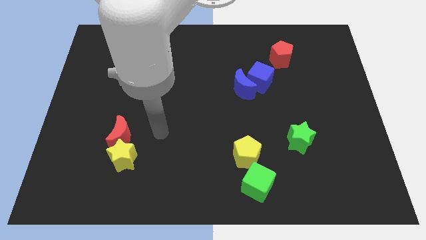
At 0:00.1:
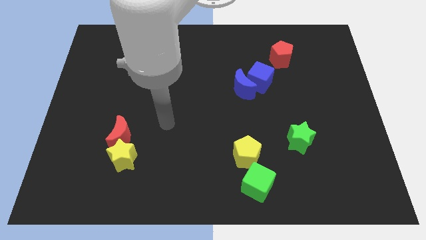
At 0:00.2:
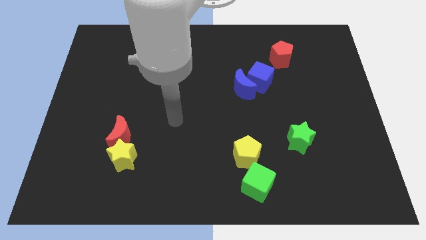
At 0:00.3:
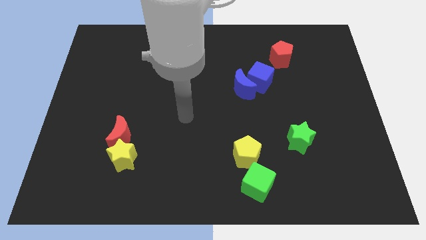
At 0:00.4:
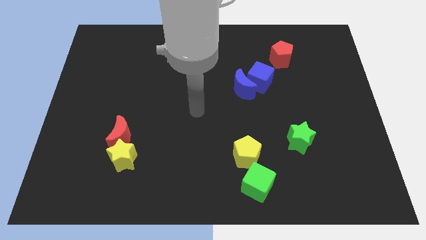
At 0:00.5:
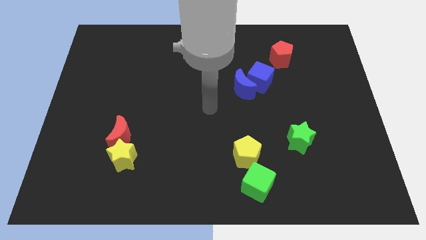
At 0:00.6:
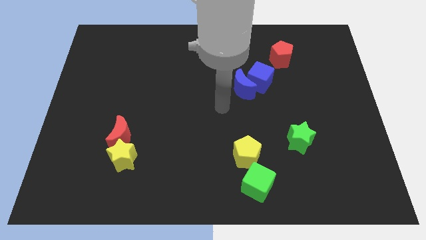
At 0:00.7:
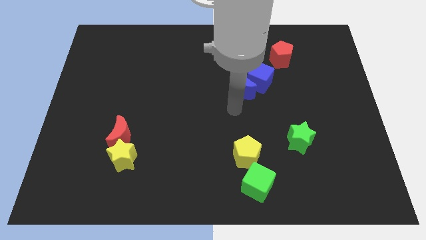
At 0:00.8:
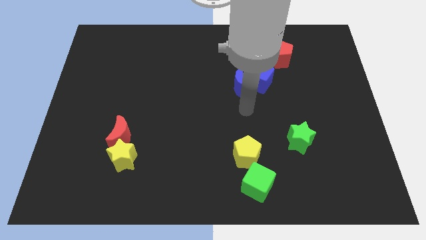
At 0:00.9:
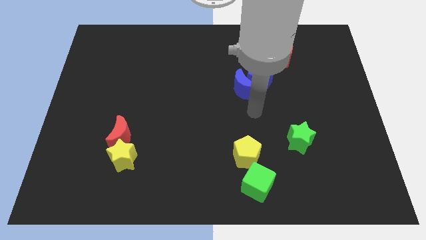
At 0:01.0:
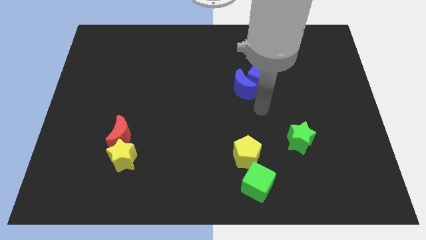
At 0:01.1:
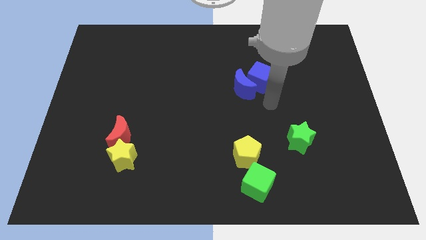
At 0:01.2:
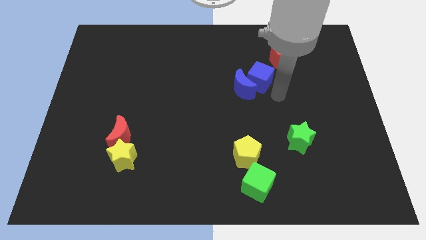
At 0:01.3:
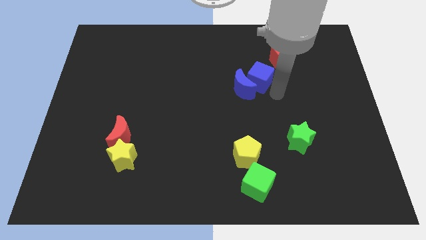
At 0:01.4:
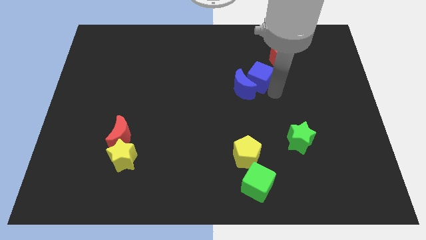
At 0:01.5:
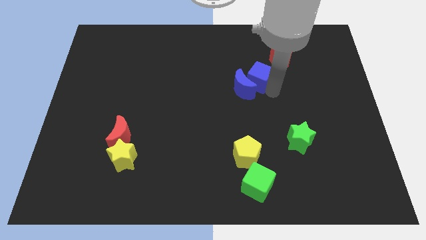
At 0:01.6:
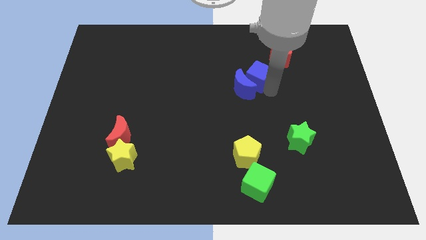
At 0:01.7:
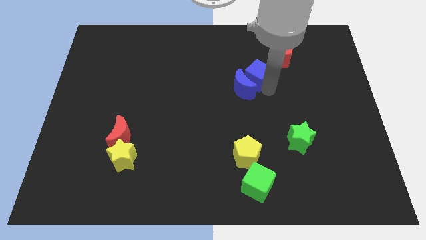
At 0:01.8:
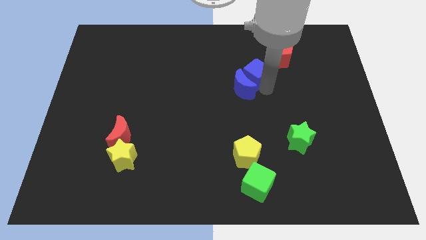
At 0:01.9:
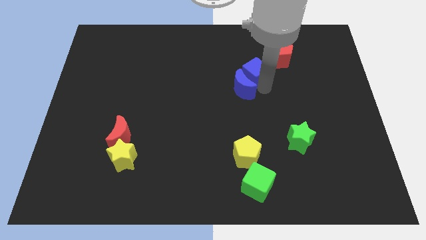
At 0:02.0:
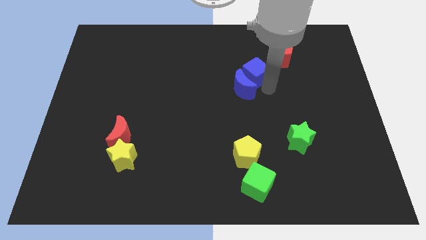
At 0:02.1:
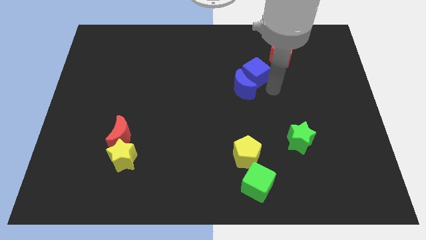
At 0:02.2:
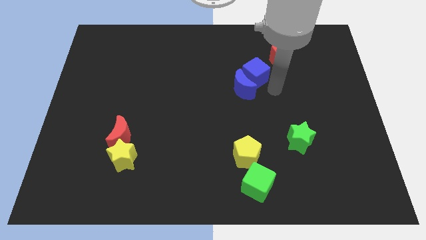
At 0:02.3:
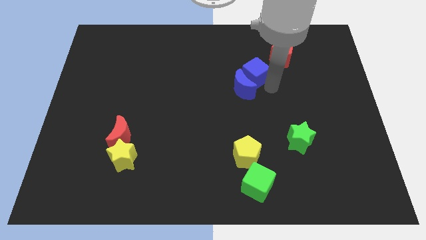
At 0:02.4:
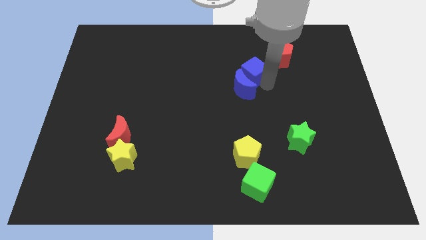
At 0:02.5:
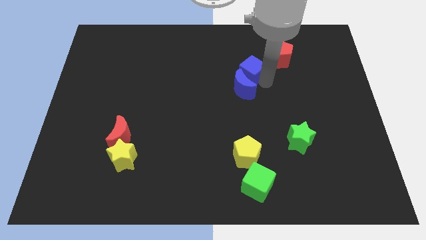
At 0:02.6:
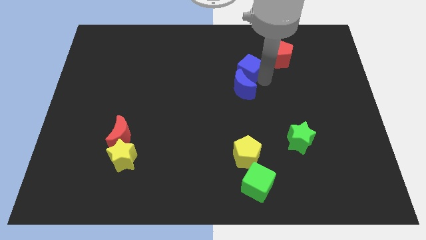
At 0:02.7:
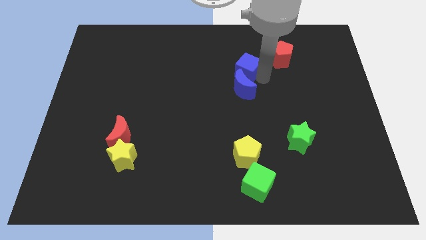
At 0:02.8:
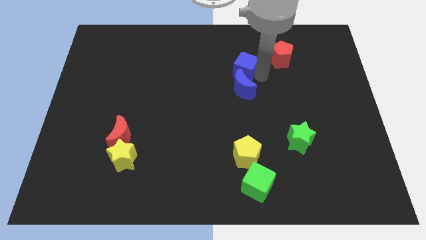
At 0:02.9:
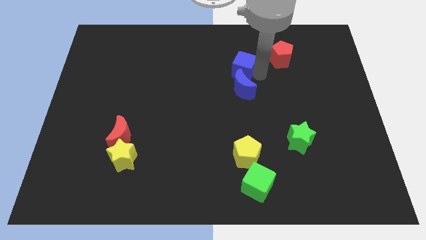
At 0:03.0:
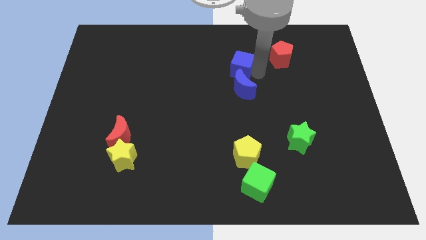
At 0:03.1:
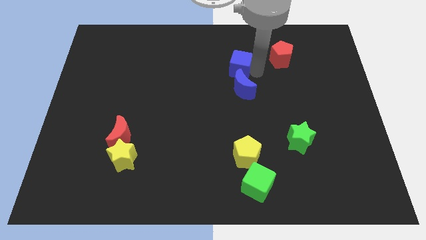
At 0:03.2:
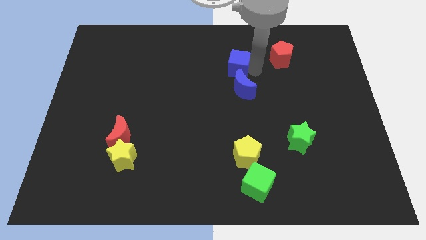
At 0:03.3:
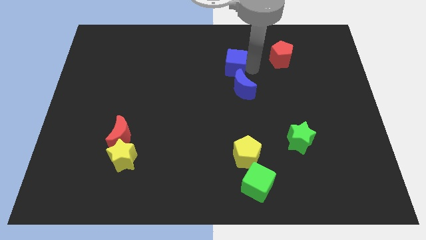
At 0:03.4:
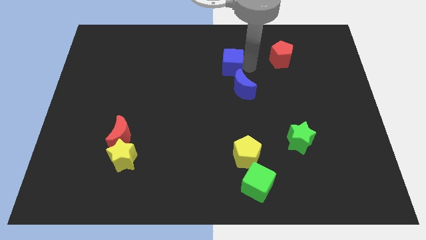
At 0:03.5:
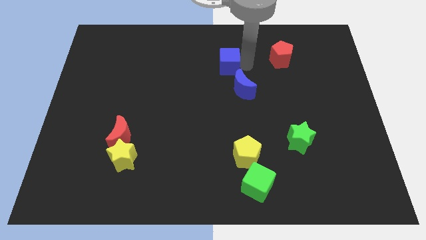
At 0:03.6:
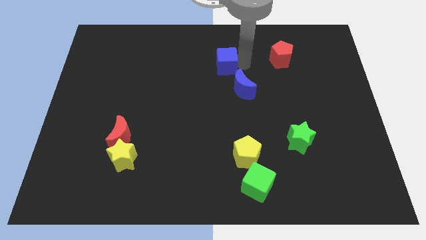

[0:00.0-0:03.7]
move the blue cube a little bit to the left

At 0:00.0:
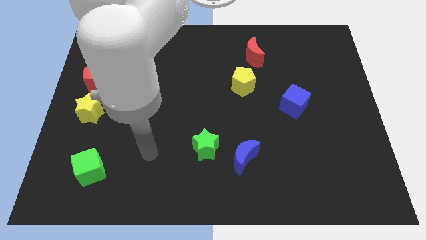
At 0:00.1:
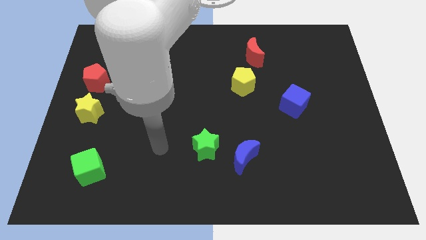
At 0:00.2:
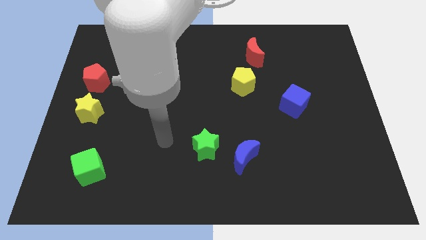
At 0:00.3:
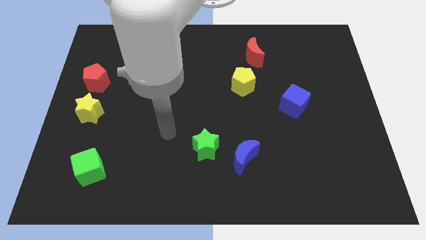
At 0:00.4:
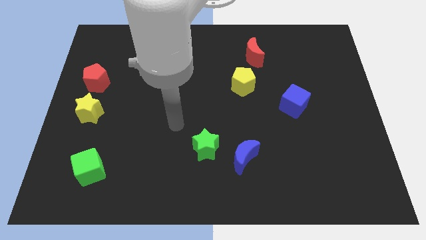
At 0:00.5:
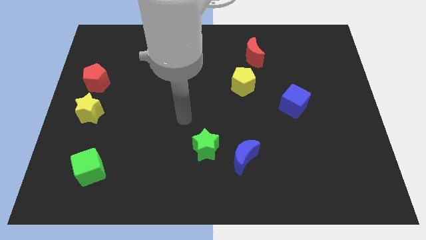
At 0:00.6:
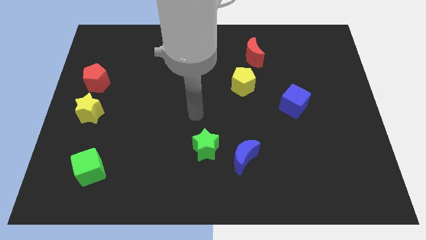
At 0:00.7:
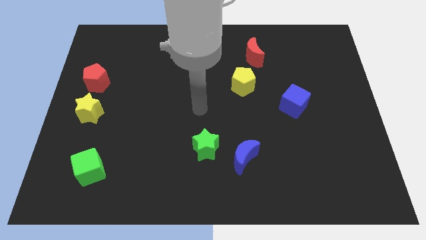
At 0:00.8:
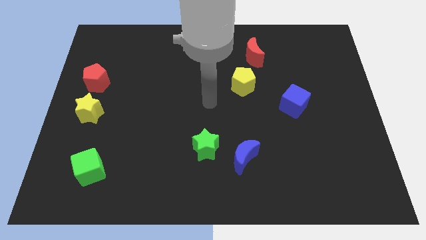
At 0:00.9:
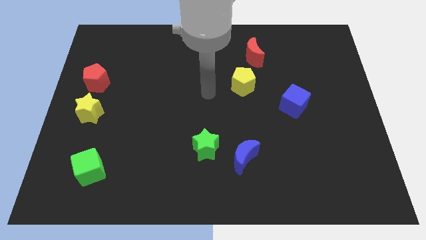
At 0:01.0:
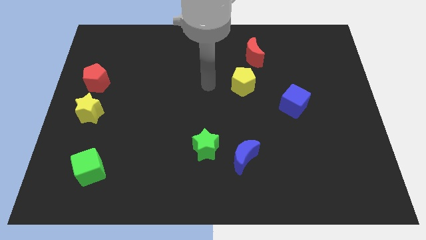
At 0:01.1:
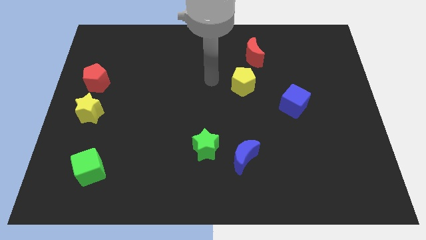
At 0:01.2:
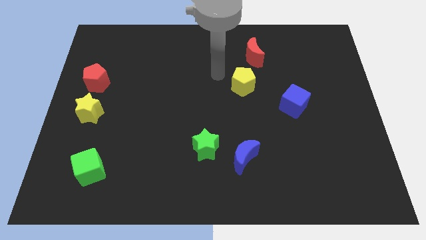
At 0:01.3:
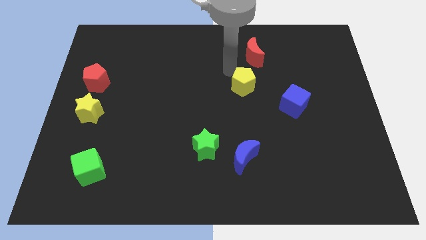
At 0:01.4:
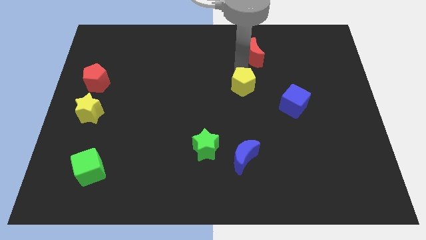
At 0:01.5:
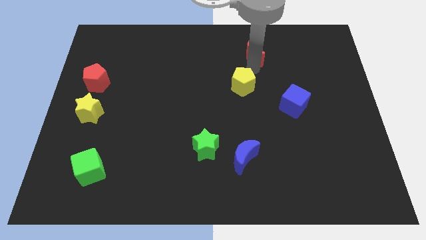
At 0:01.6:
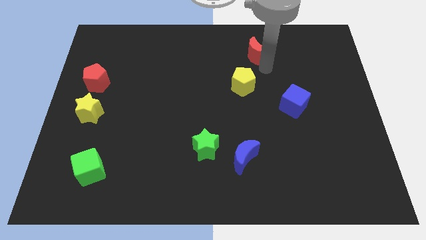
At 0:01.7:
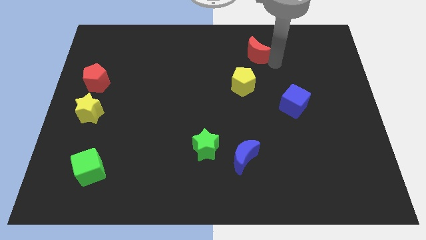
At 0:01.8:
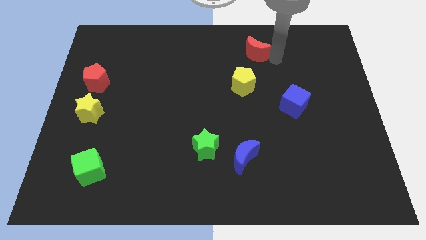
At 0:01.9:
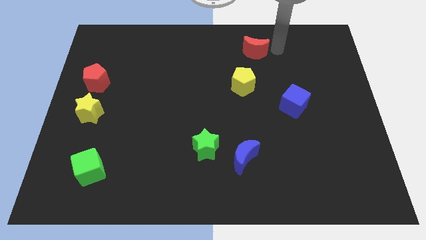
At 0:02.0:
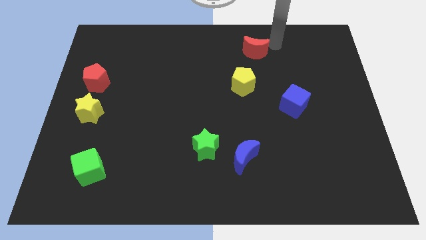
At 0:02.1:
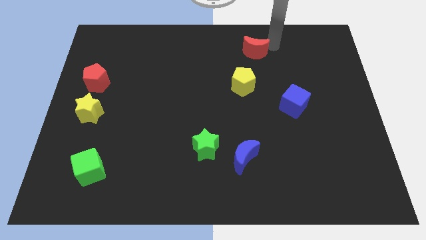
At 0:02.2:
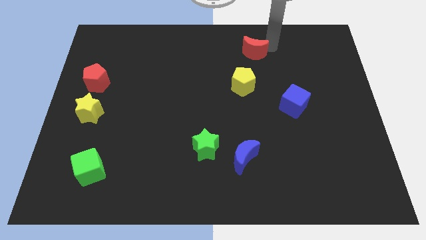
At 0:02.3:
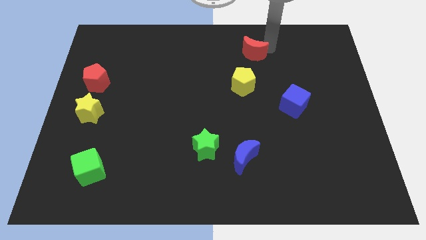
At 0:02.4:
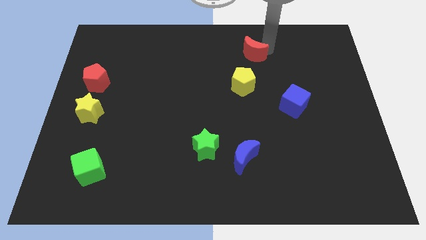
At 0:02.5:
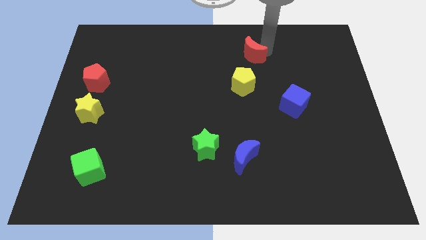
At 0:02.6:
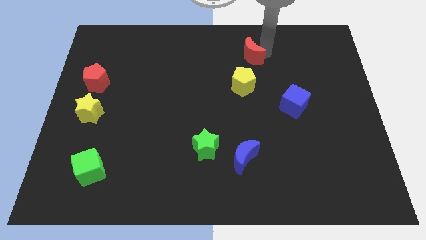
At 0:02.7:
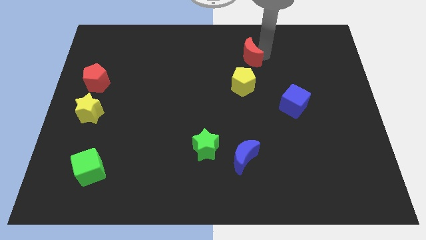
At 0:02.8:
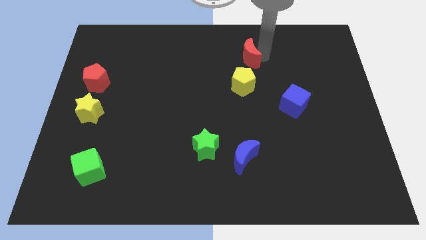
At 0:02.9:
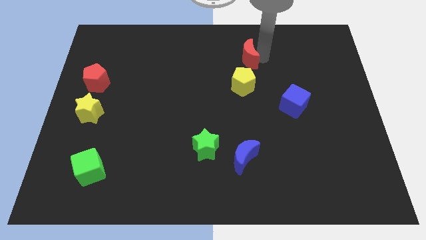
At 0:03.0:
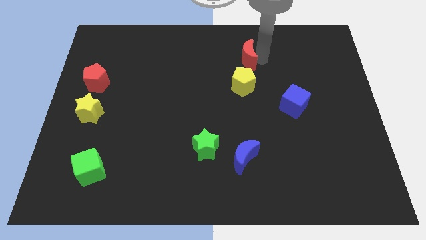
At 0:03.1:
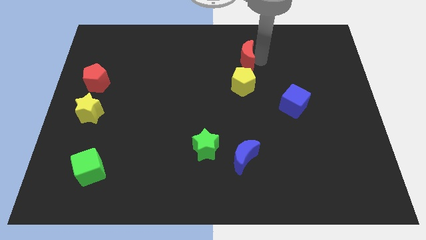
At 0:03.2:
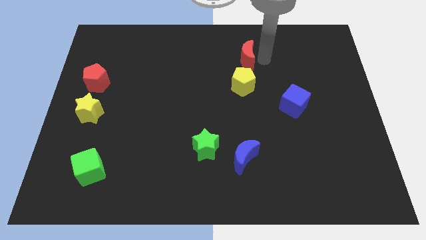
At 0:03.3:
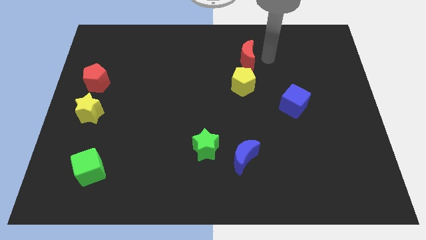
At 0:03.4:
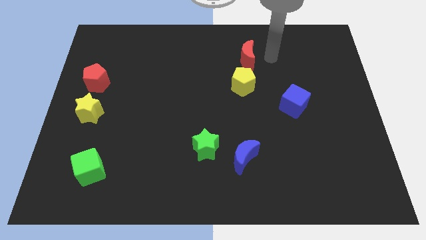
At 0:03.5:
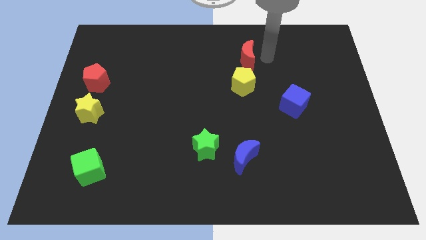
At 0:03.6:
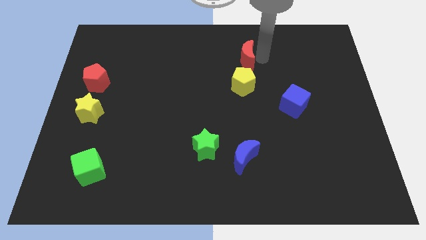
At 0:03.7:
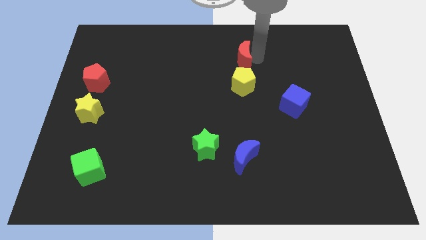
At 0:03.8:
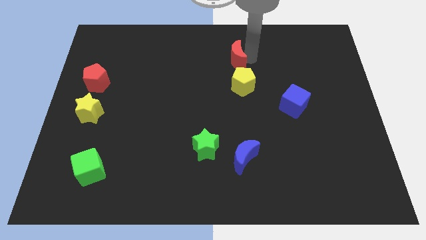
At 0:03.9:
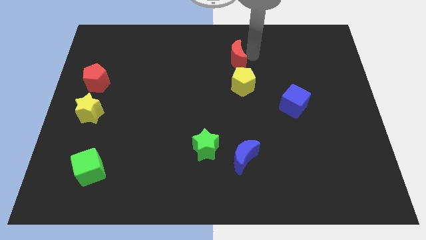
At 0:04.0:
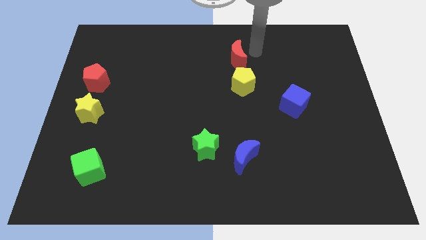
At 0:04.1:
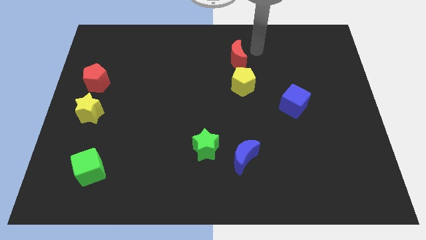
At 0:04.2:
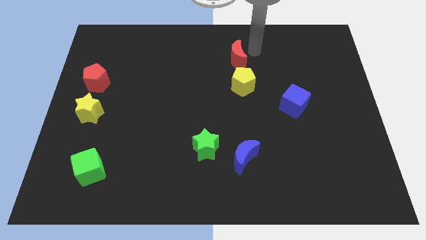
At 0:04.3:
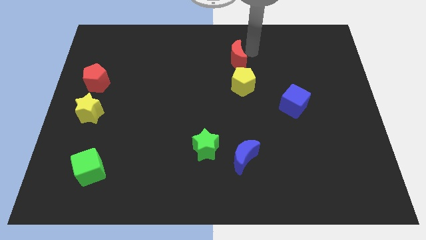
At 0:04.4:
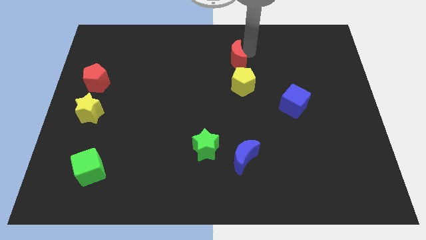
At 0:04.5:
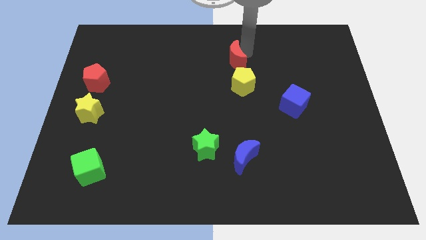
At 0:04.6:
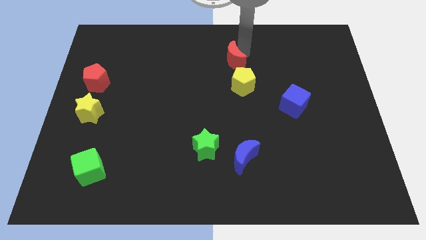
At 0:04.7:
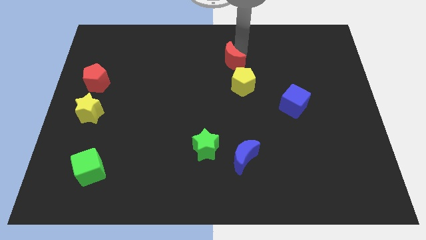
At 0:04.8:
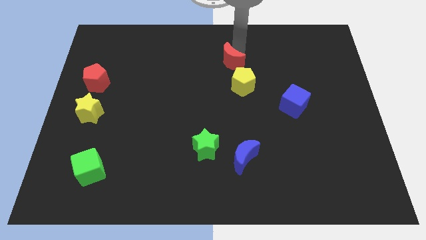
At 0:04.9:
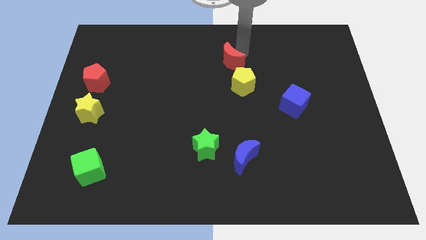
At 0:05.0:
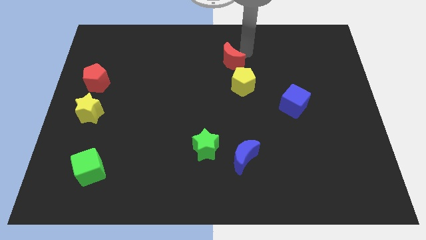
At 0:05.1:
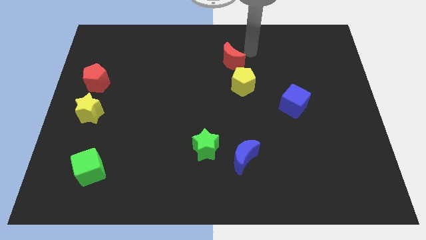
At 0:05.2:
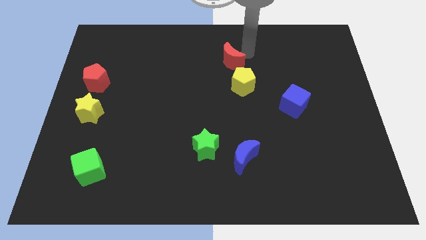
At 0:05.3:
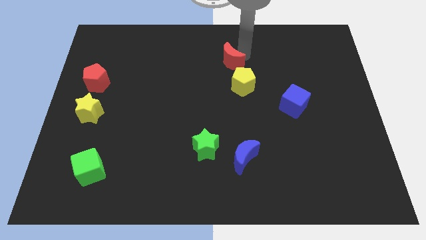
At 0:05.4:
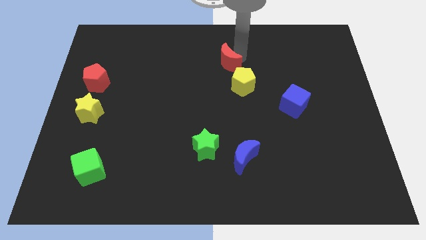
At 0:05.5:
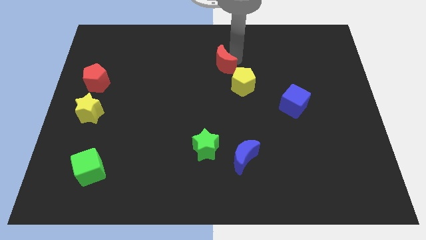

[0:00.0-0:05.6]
push the red moon diagonally downwards and left slightly
